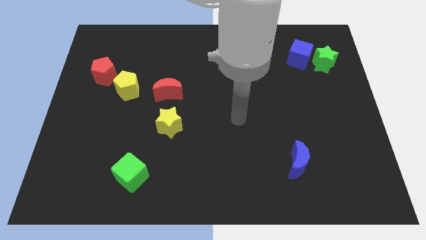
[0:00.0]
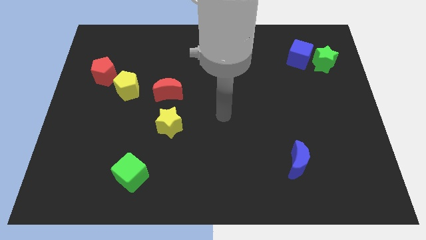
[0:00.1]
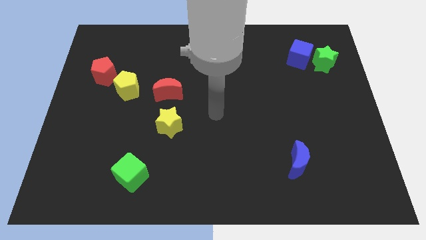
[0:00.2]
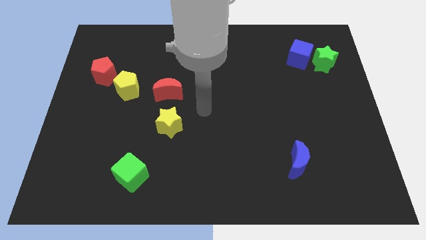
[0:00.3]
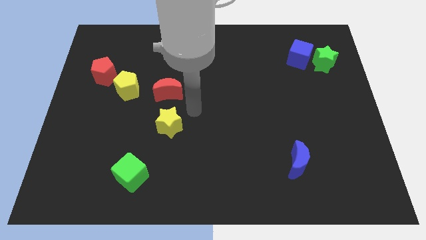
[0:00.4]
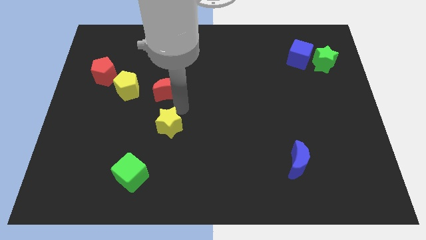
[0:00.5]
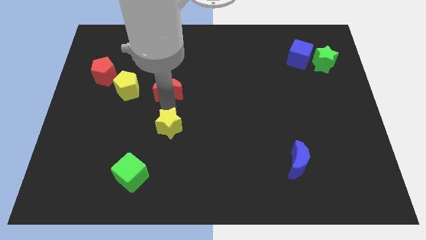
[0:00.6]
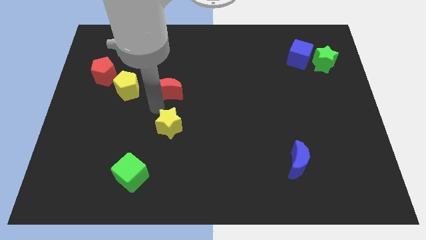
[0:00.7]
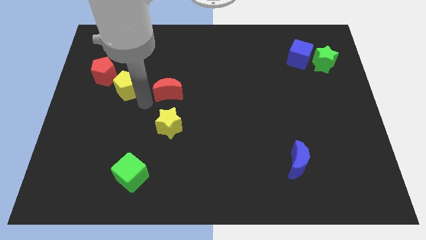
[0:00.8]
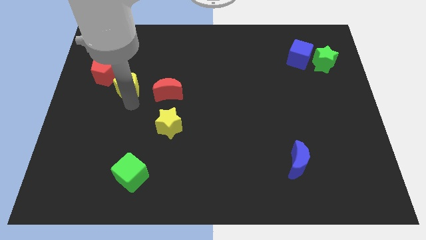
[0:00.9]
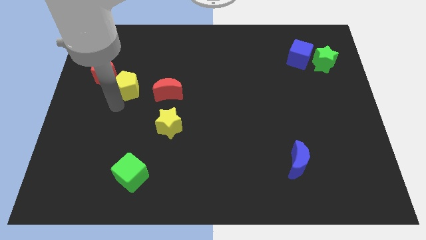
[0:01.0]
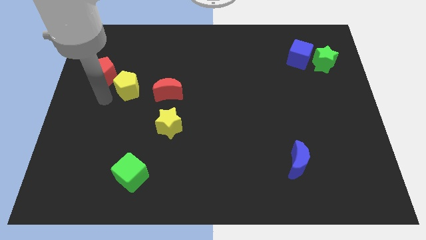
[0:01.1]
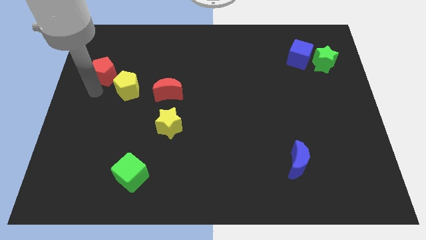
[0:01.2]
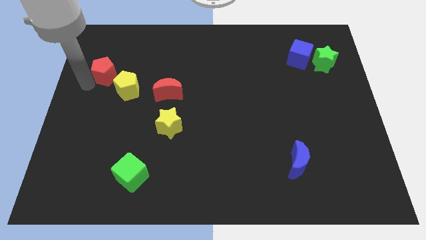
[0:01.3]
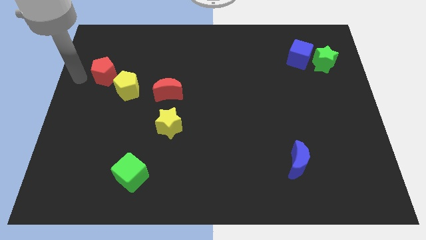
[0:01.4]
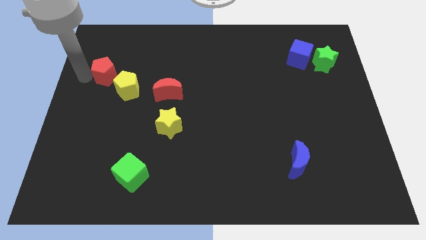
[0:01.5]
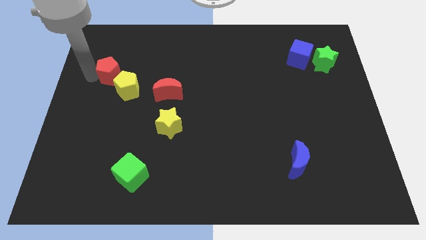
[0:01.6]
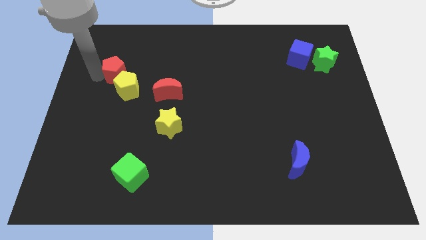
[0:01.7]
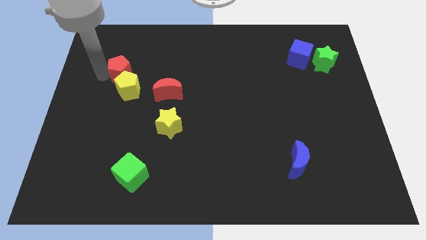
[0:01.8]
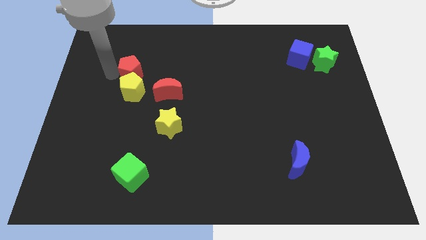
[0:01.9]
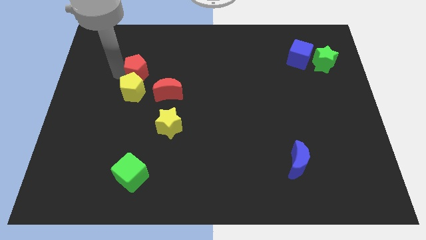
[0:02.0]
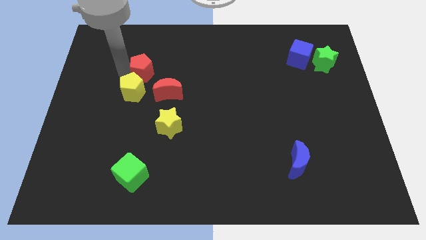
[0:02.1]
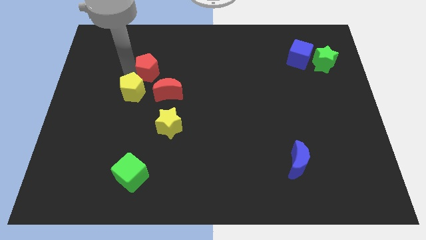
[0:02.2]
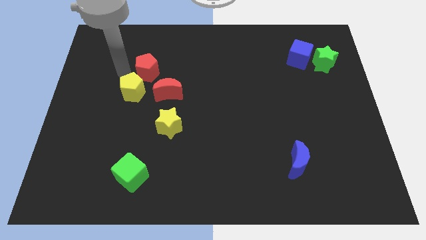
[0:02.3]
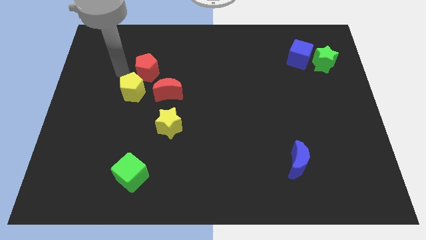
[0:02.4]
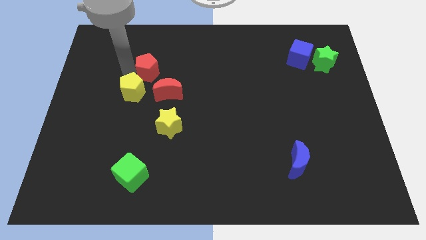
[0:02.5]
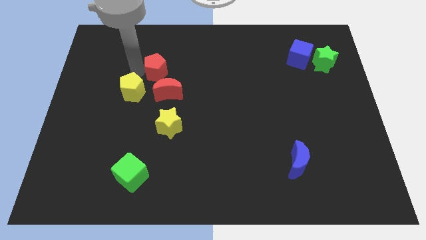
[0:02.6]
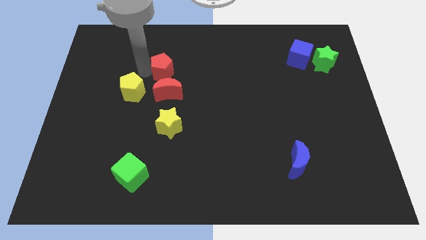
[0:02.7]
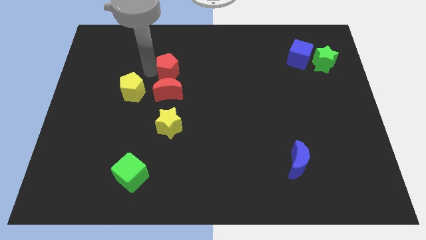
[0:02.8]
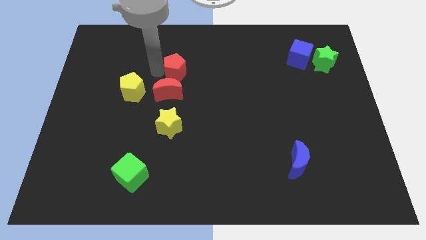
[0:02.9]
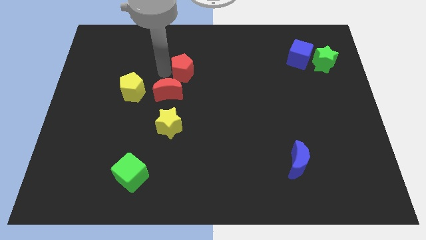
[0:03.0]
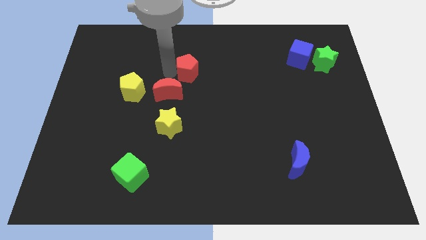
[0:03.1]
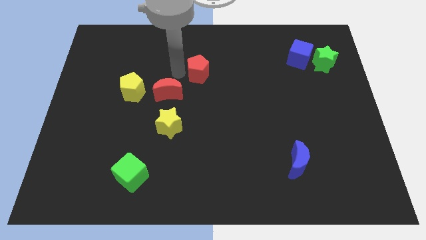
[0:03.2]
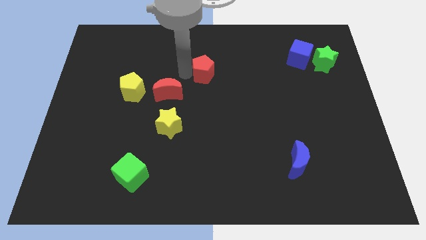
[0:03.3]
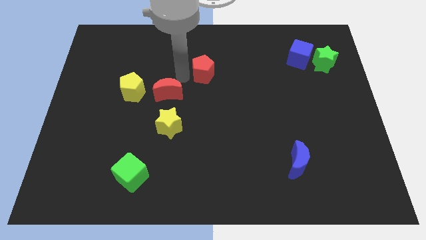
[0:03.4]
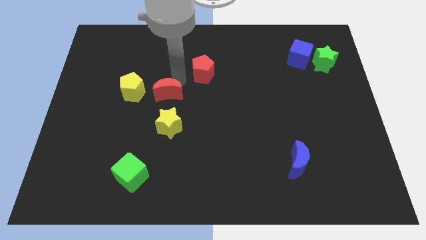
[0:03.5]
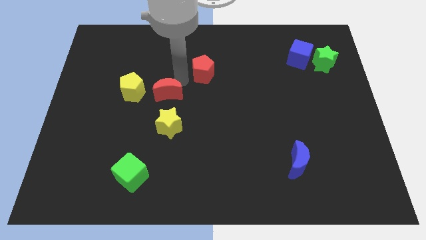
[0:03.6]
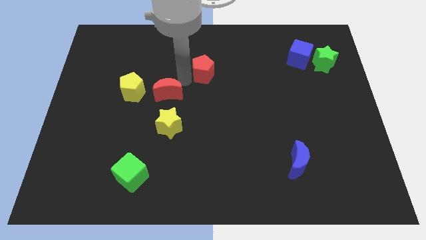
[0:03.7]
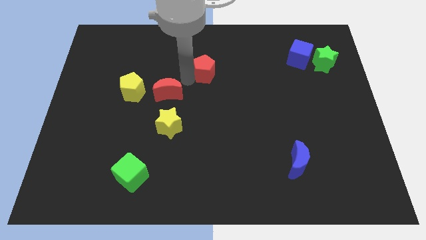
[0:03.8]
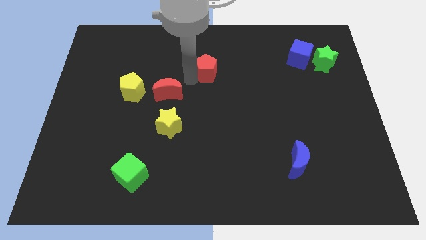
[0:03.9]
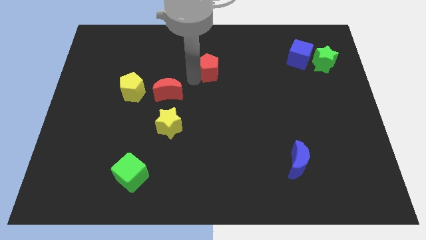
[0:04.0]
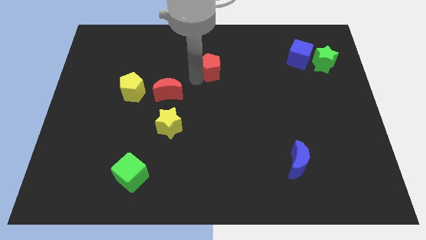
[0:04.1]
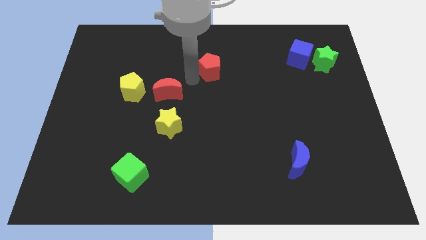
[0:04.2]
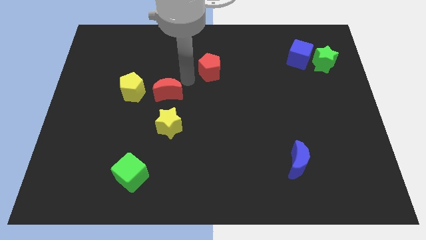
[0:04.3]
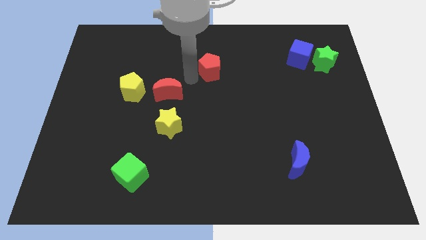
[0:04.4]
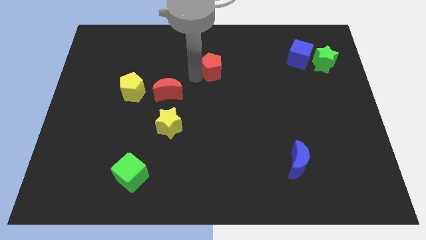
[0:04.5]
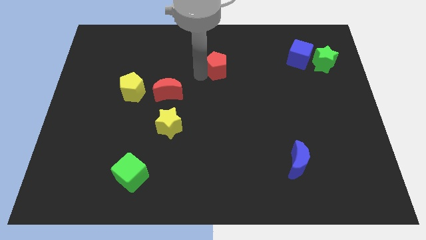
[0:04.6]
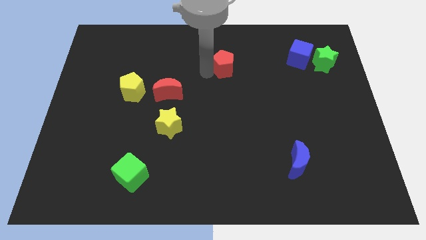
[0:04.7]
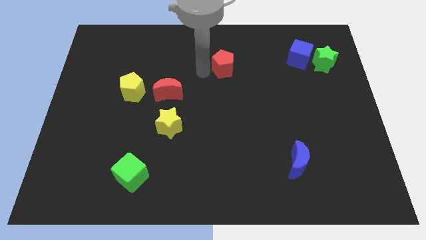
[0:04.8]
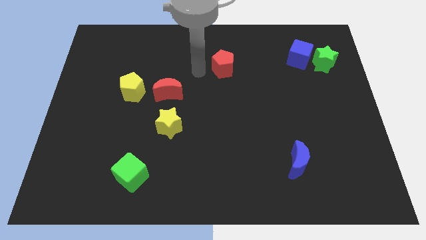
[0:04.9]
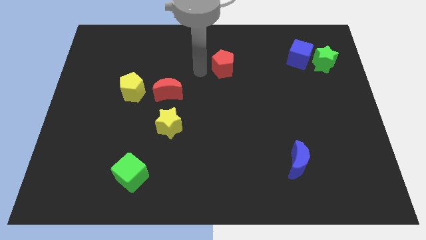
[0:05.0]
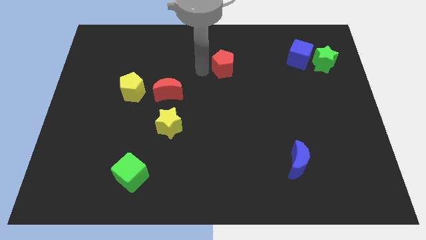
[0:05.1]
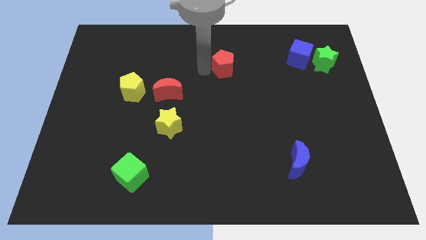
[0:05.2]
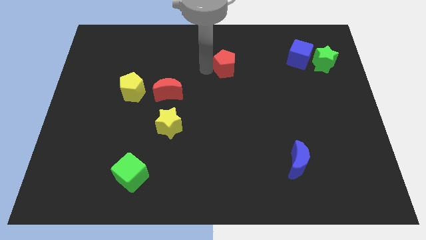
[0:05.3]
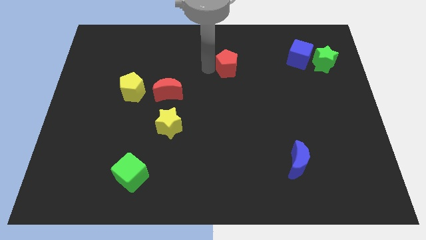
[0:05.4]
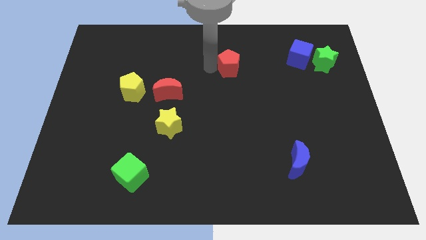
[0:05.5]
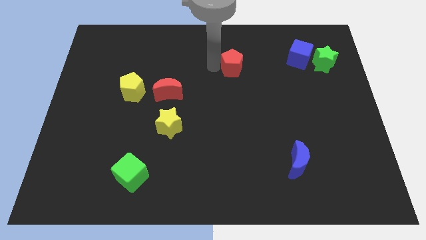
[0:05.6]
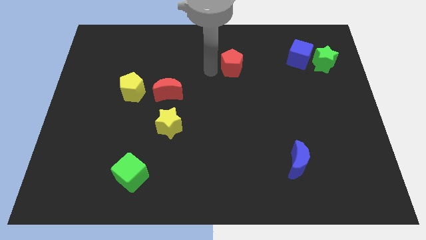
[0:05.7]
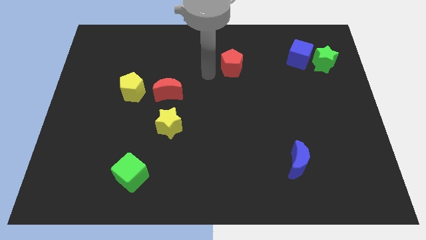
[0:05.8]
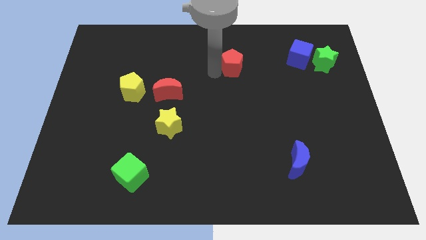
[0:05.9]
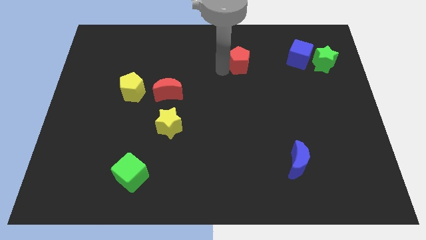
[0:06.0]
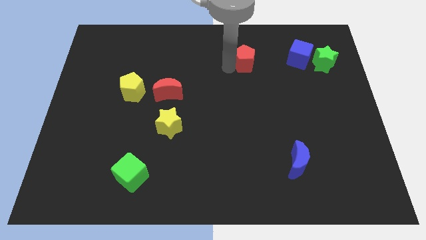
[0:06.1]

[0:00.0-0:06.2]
put the red pentagon to the left side of the blue cube

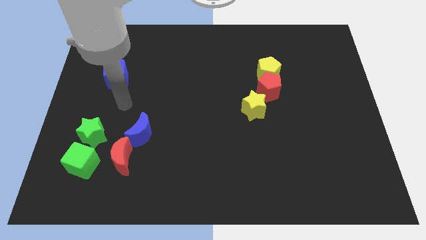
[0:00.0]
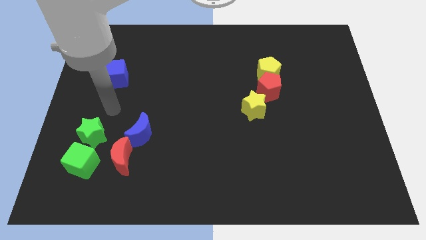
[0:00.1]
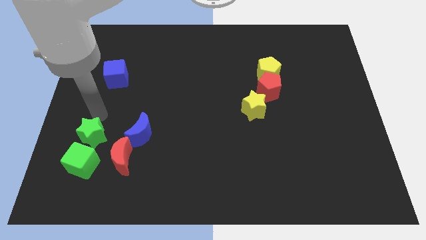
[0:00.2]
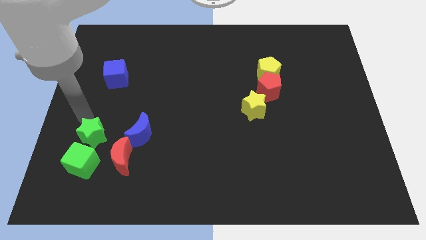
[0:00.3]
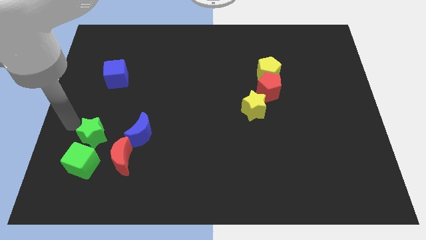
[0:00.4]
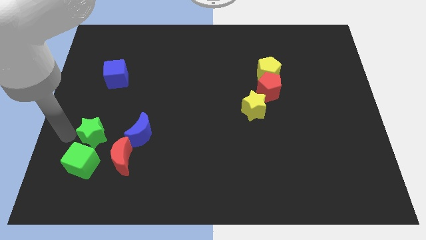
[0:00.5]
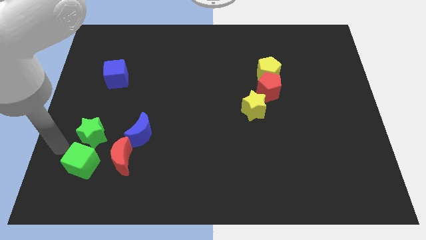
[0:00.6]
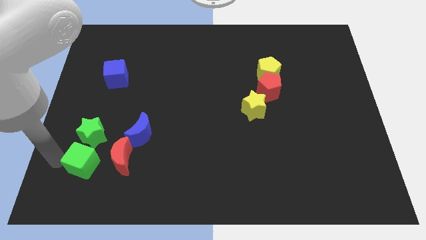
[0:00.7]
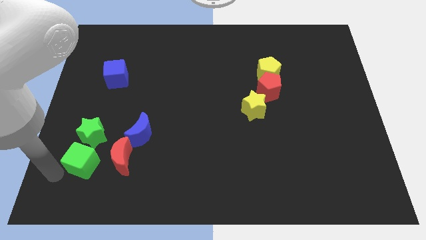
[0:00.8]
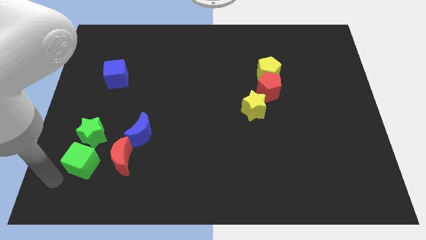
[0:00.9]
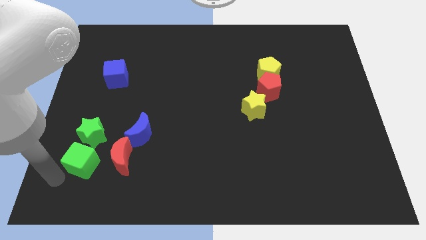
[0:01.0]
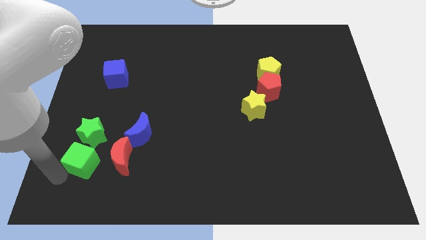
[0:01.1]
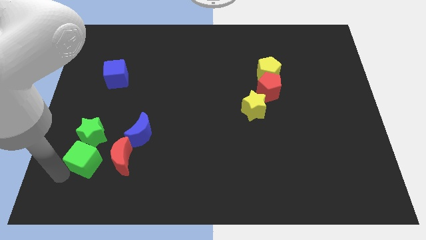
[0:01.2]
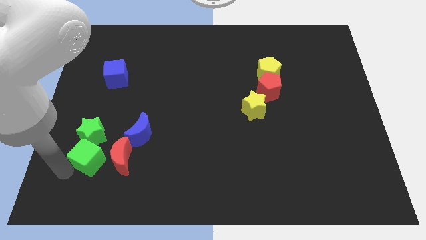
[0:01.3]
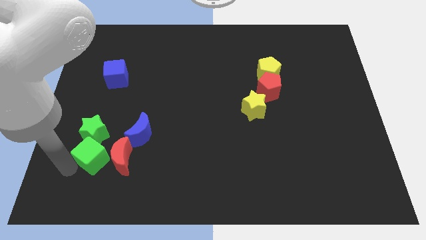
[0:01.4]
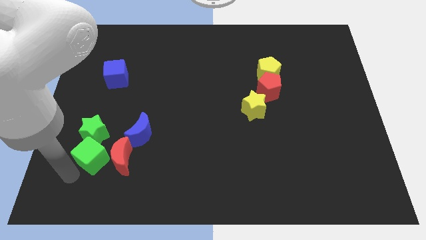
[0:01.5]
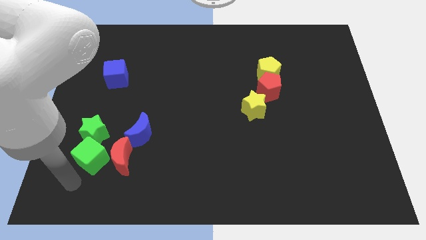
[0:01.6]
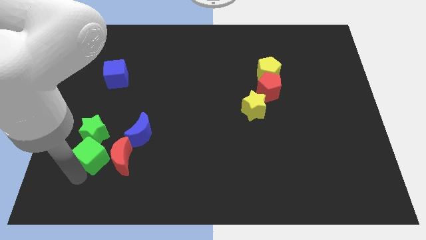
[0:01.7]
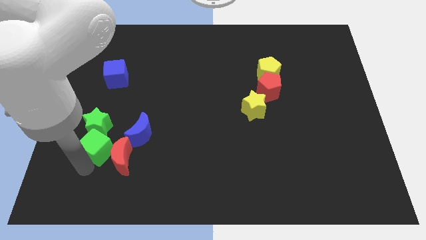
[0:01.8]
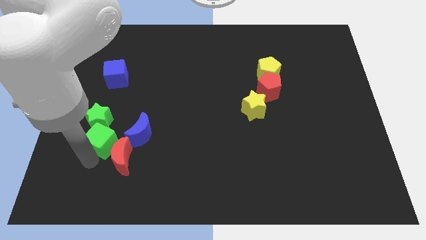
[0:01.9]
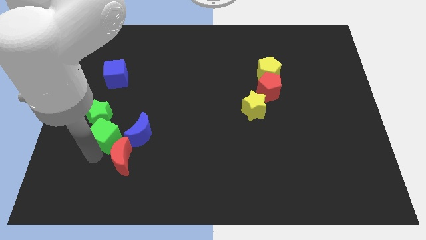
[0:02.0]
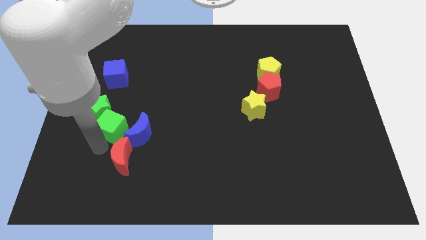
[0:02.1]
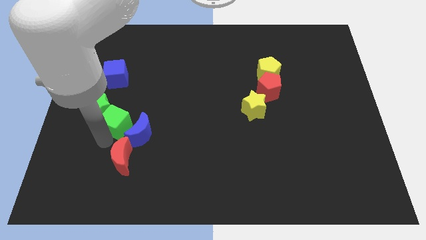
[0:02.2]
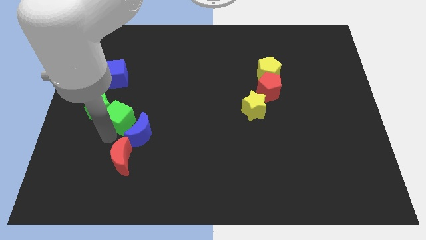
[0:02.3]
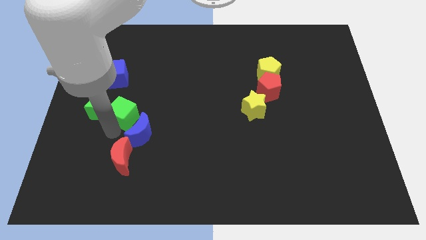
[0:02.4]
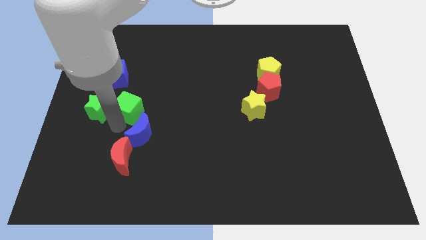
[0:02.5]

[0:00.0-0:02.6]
put the green cube diagonally down and to the right of the blue cube
